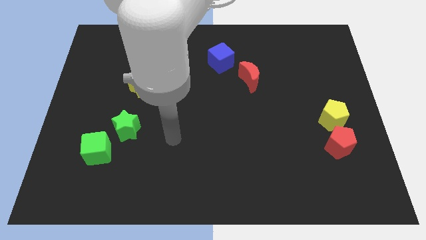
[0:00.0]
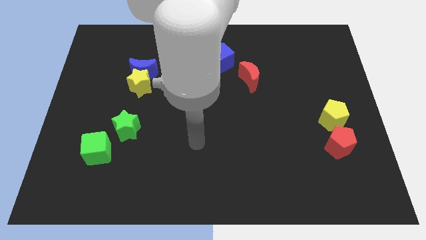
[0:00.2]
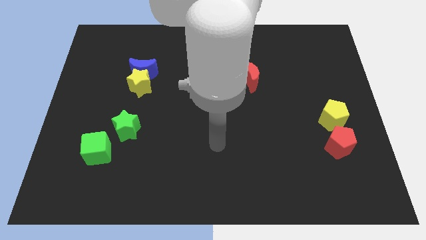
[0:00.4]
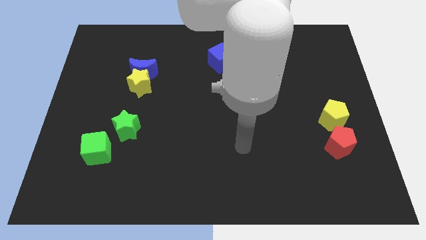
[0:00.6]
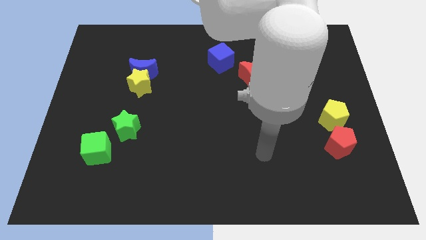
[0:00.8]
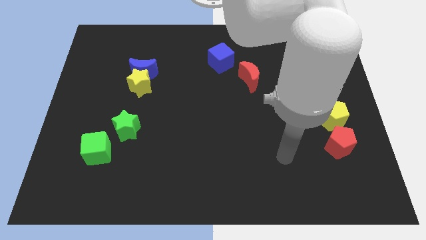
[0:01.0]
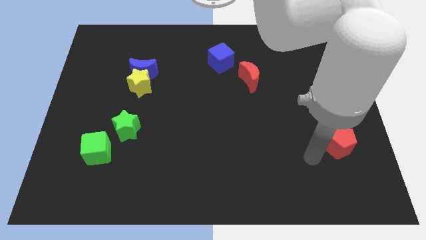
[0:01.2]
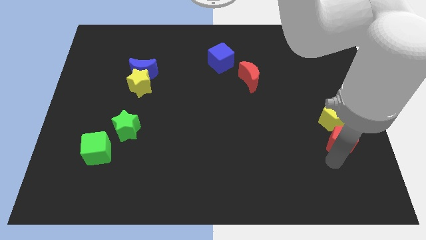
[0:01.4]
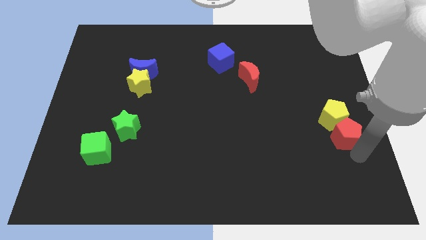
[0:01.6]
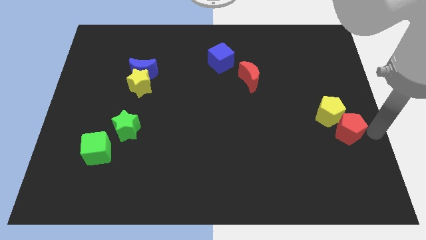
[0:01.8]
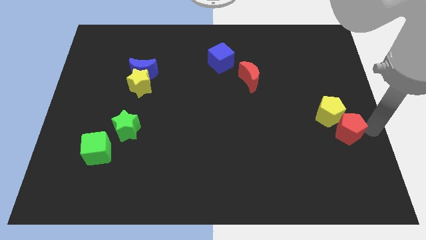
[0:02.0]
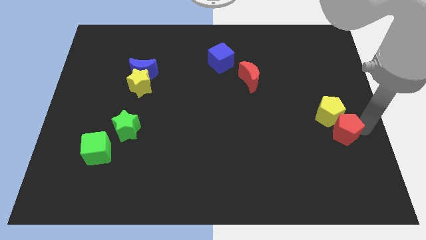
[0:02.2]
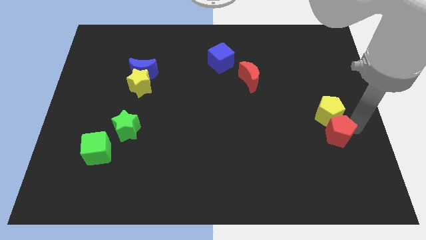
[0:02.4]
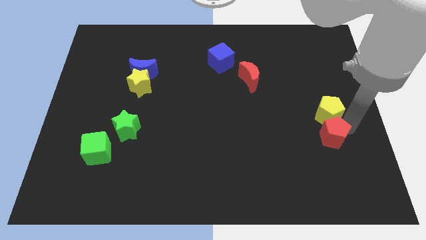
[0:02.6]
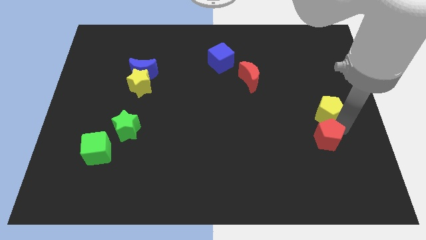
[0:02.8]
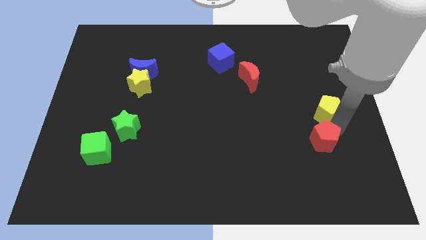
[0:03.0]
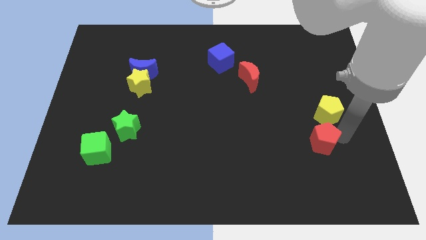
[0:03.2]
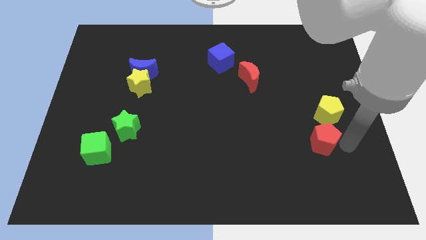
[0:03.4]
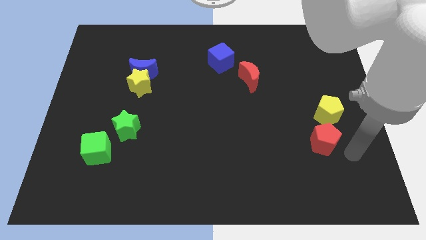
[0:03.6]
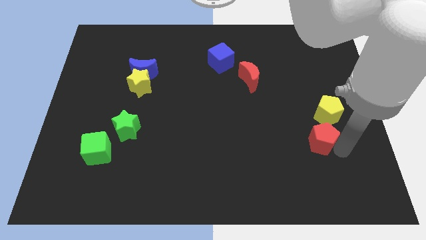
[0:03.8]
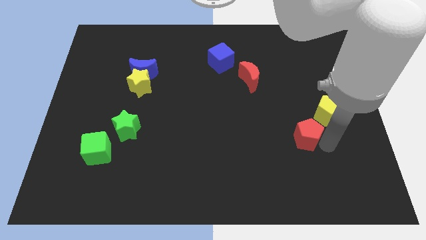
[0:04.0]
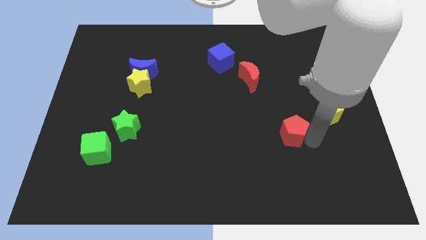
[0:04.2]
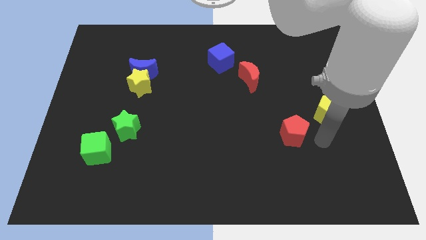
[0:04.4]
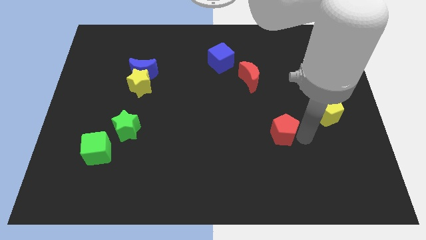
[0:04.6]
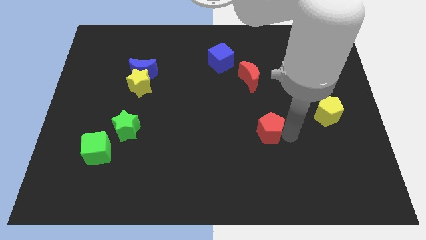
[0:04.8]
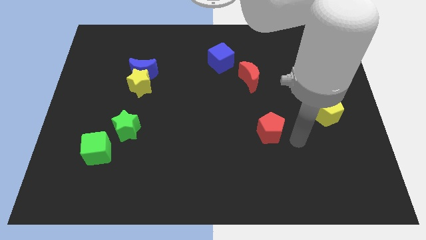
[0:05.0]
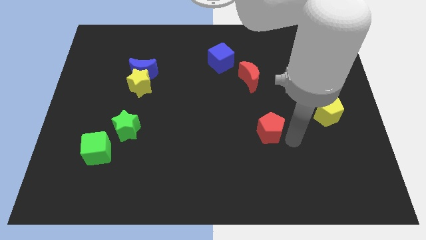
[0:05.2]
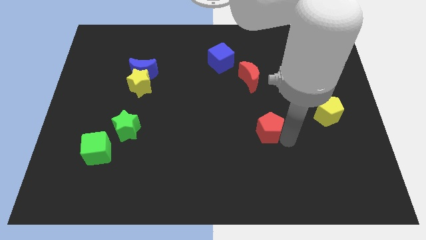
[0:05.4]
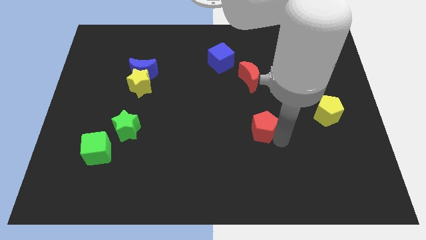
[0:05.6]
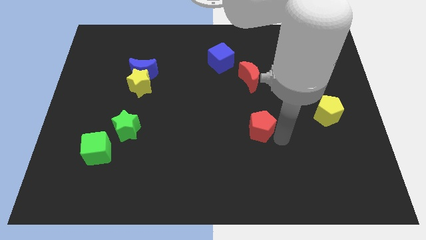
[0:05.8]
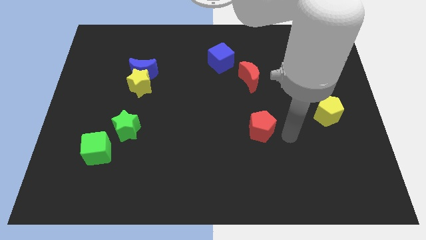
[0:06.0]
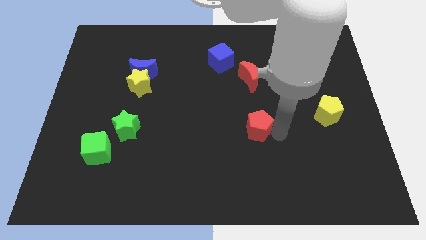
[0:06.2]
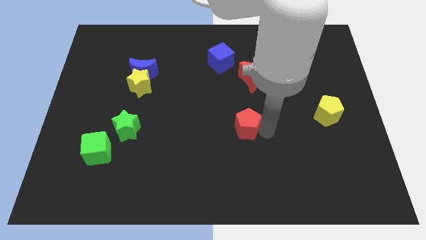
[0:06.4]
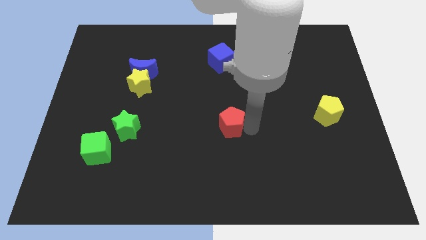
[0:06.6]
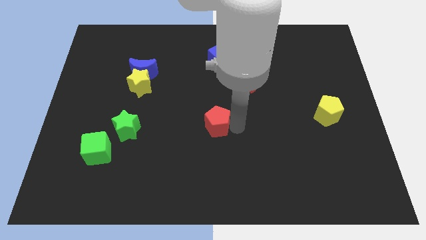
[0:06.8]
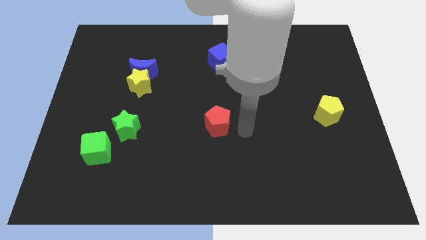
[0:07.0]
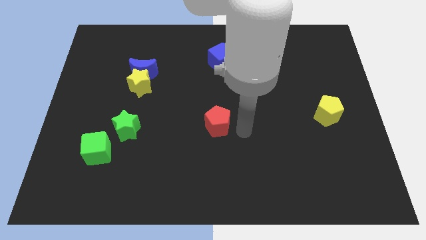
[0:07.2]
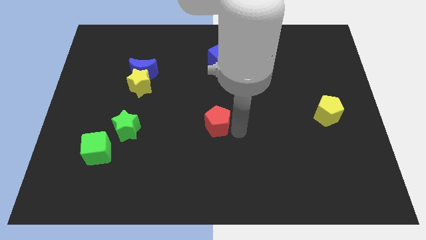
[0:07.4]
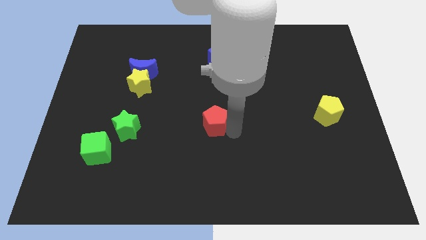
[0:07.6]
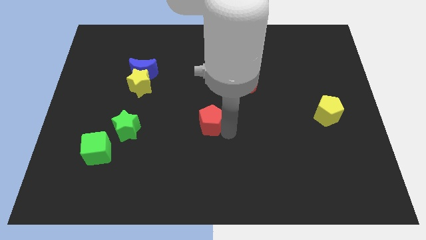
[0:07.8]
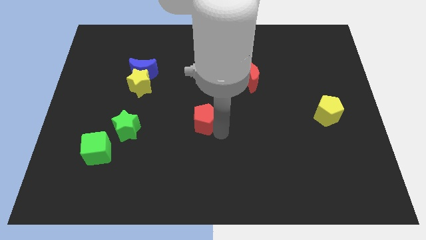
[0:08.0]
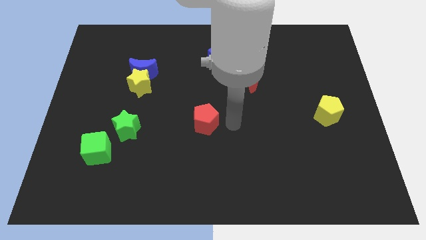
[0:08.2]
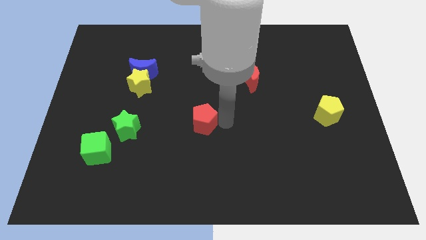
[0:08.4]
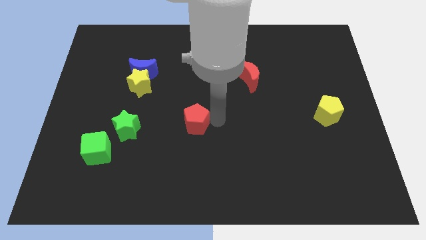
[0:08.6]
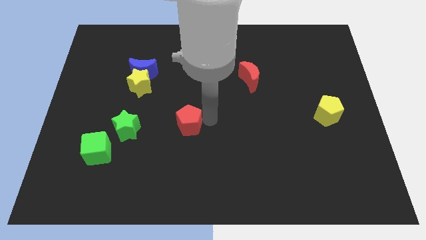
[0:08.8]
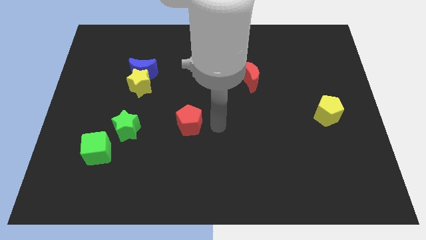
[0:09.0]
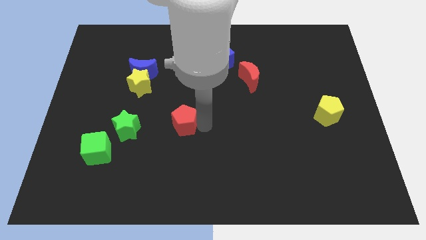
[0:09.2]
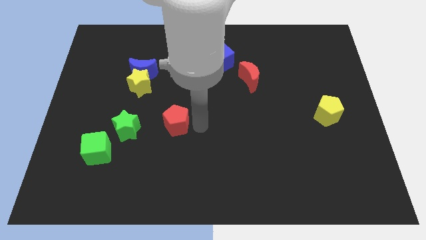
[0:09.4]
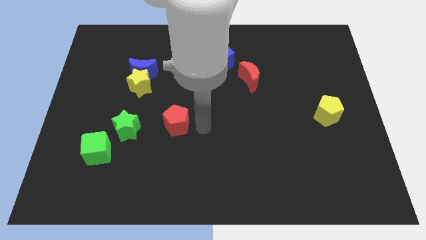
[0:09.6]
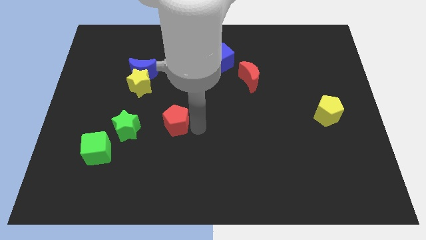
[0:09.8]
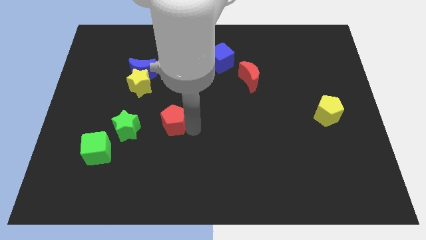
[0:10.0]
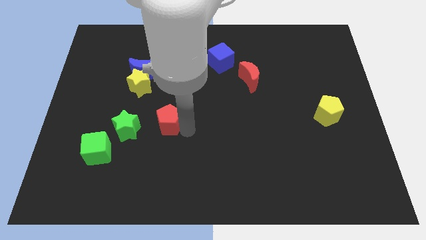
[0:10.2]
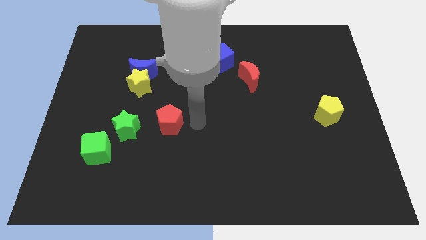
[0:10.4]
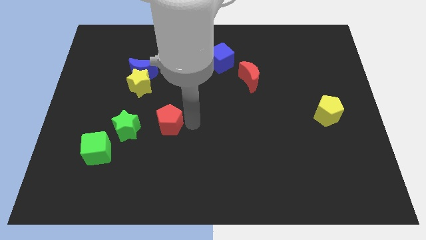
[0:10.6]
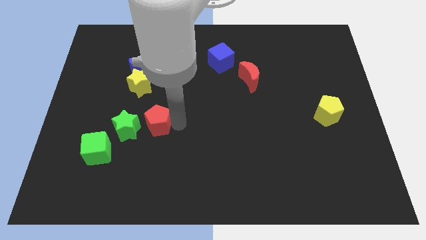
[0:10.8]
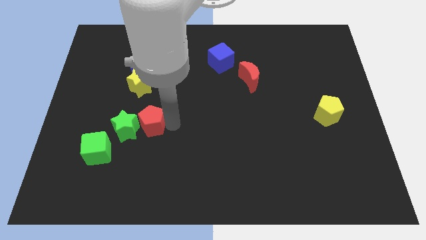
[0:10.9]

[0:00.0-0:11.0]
push the red pentagon close to the green star

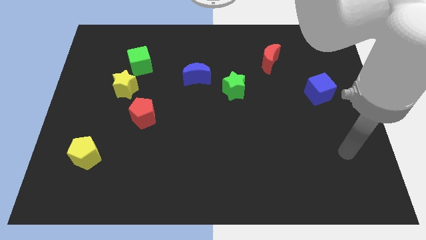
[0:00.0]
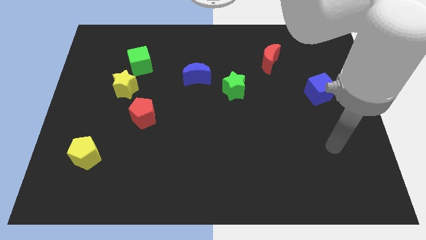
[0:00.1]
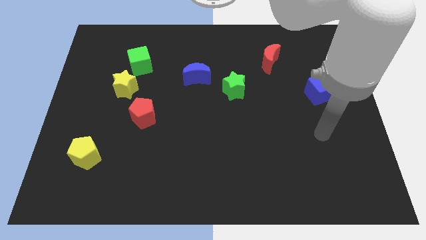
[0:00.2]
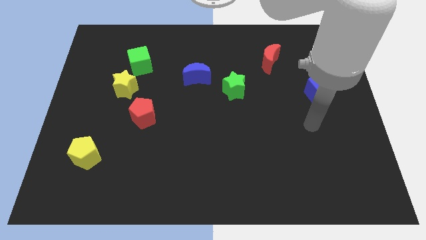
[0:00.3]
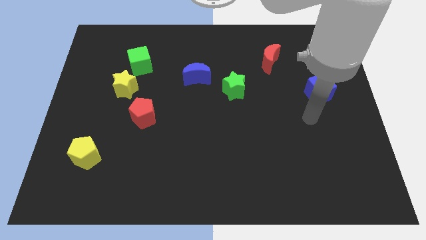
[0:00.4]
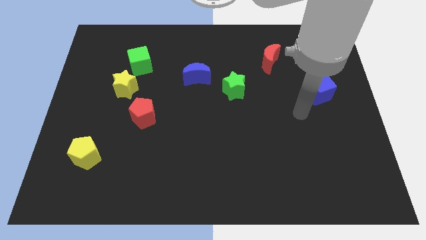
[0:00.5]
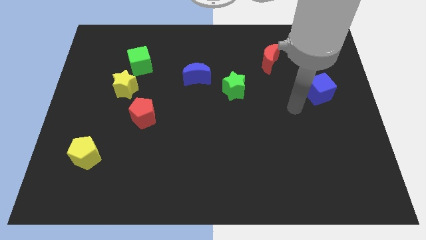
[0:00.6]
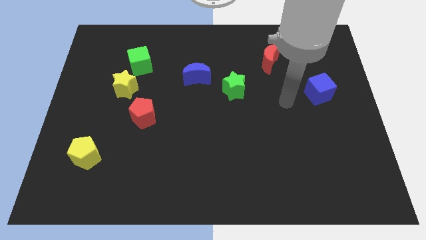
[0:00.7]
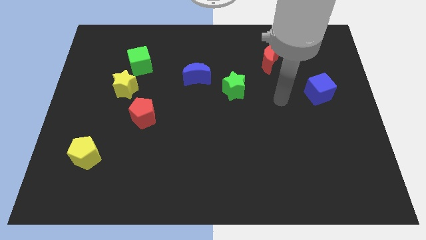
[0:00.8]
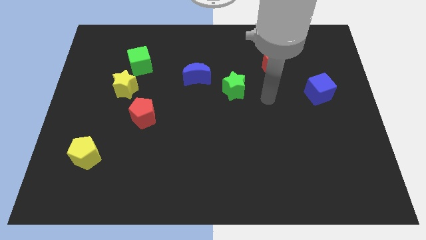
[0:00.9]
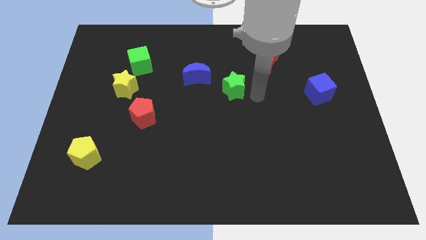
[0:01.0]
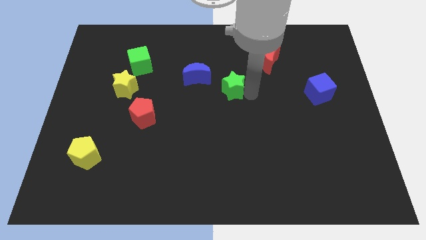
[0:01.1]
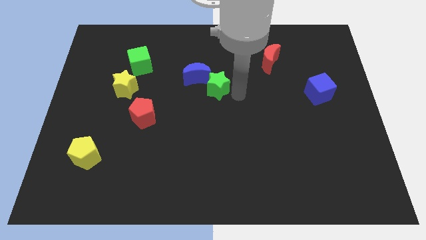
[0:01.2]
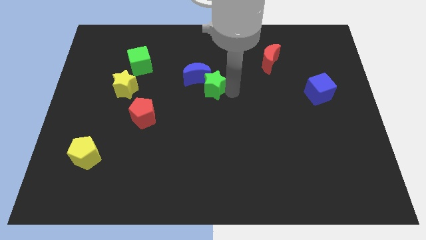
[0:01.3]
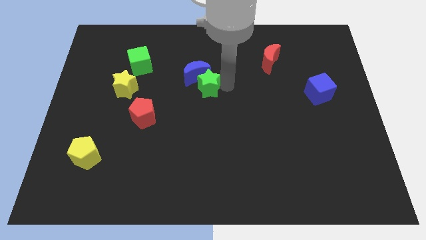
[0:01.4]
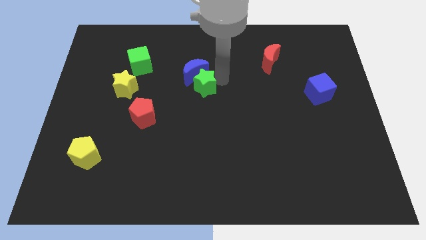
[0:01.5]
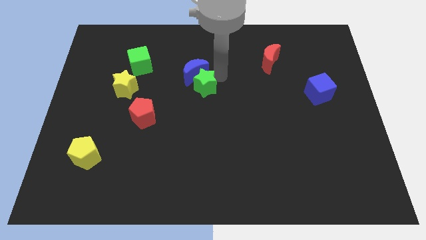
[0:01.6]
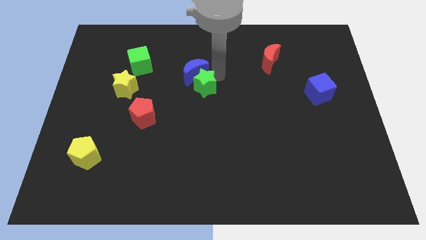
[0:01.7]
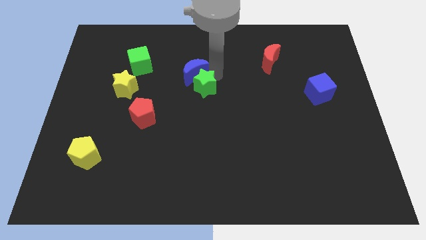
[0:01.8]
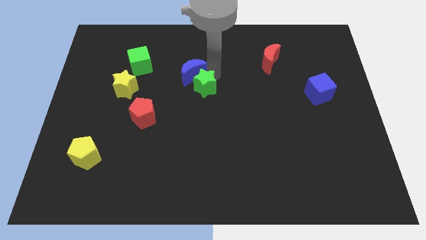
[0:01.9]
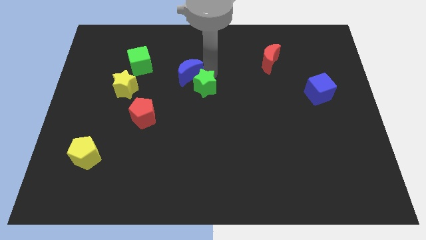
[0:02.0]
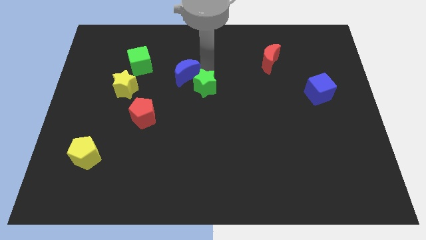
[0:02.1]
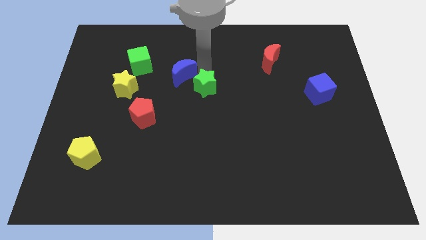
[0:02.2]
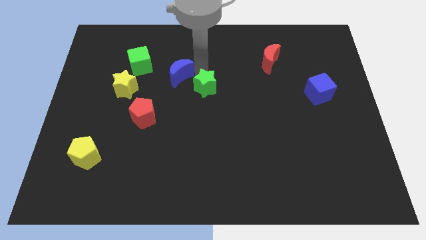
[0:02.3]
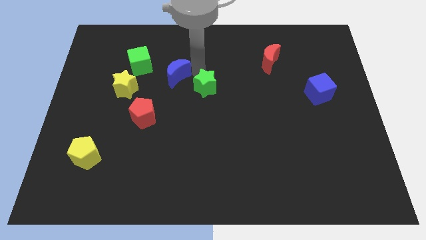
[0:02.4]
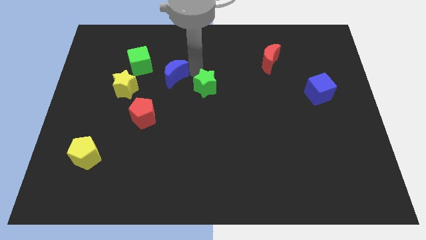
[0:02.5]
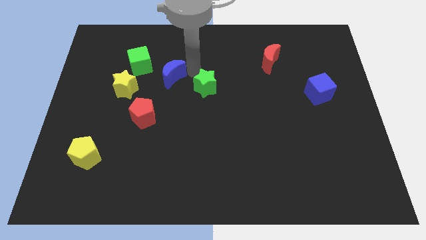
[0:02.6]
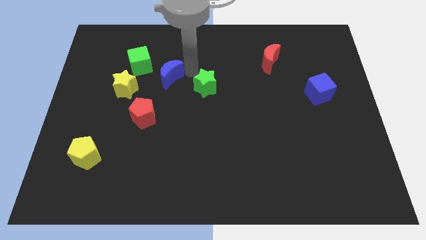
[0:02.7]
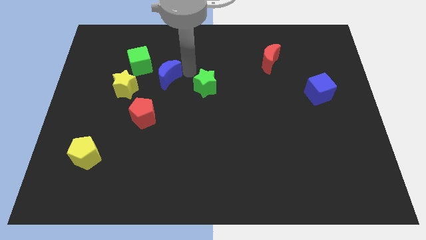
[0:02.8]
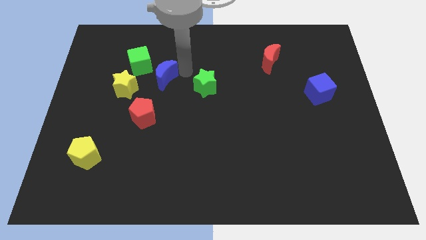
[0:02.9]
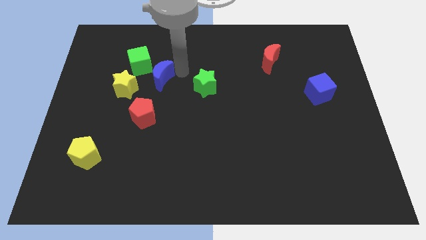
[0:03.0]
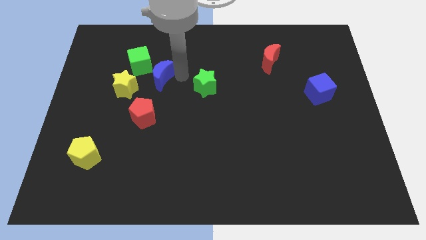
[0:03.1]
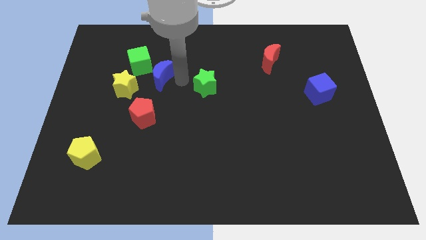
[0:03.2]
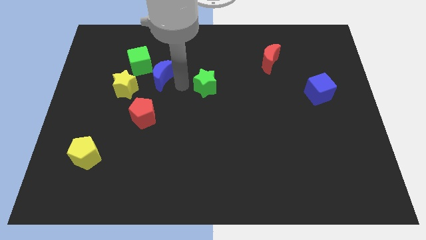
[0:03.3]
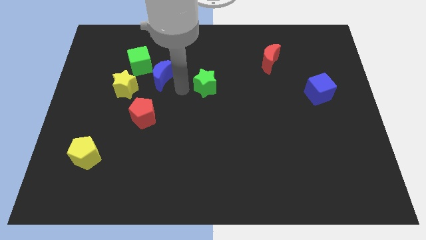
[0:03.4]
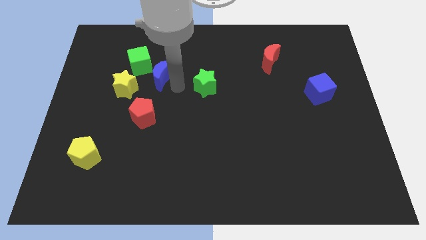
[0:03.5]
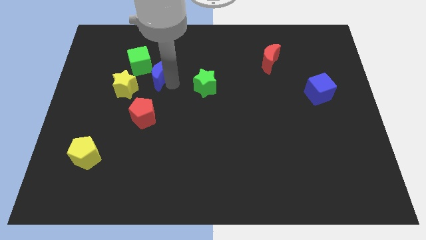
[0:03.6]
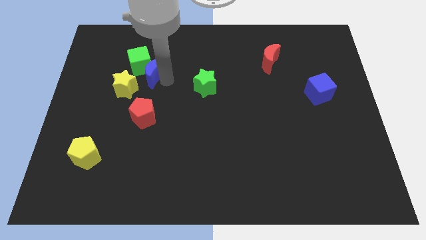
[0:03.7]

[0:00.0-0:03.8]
put the blue moon close to the green cube
